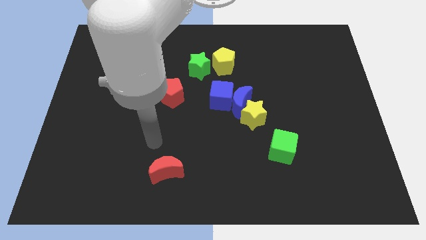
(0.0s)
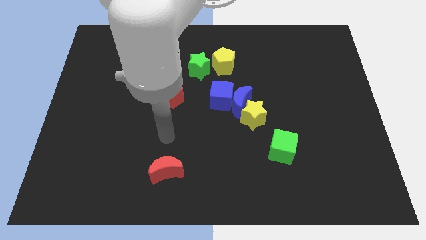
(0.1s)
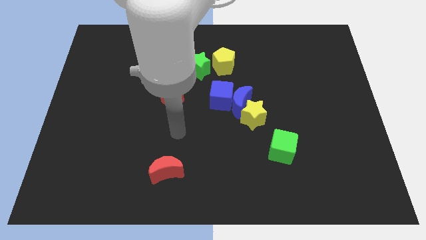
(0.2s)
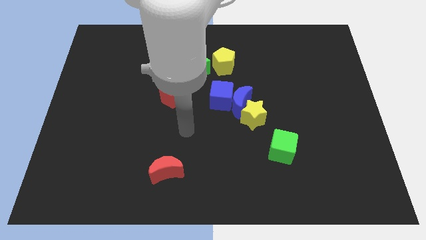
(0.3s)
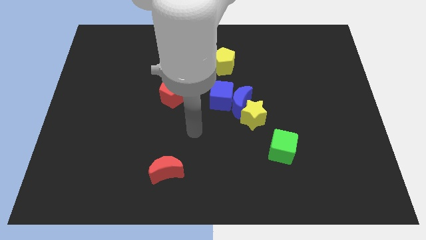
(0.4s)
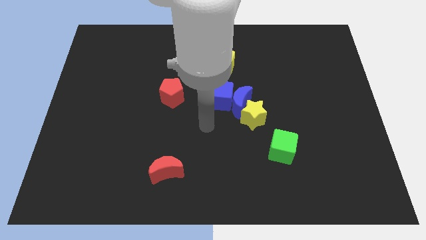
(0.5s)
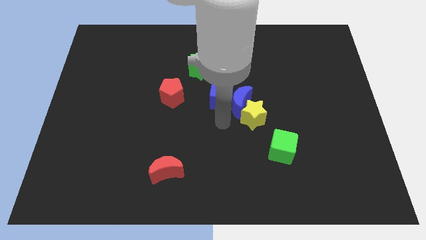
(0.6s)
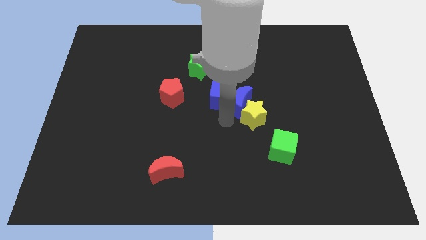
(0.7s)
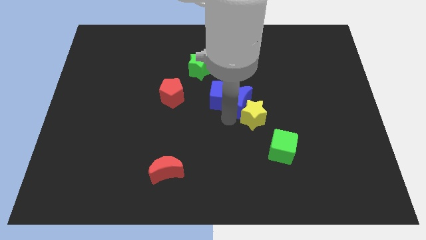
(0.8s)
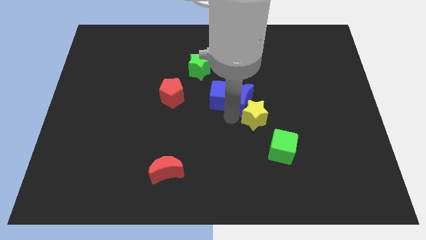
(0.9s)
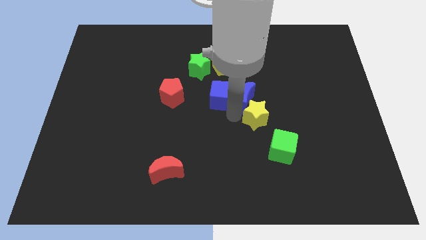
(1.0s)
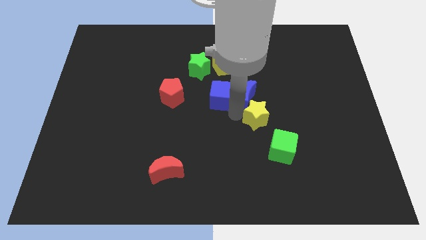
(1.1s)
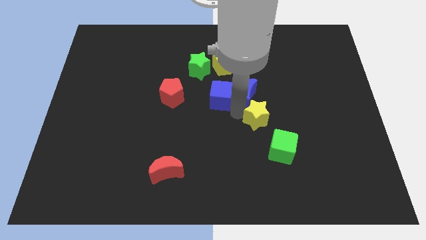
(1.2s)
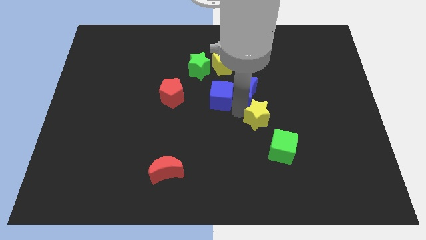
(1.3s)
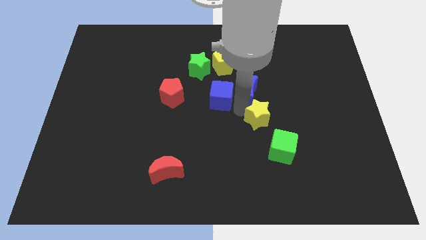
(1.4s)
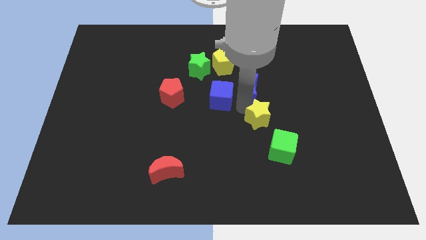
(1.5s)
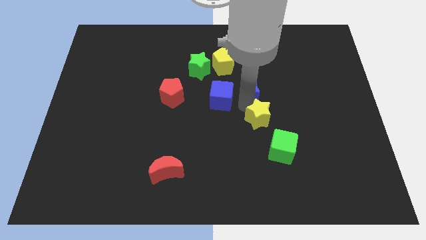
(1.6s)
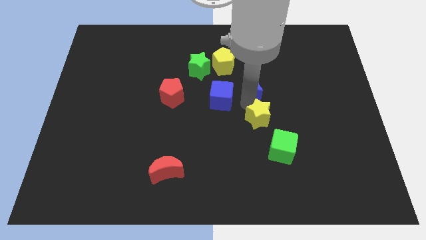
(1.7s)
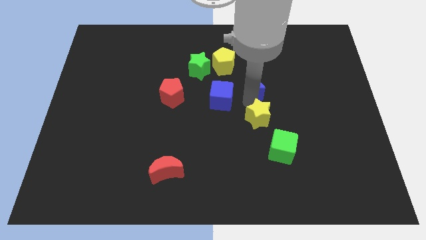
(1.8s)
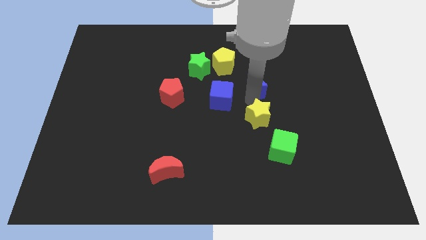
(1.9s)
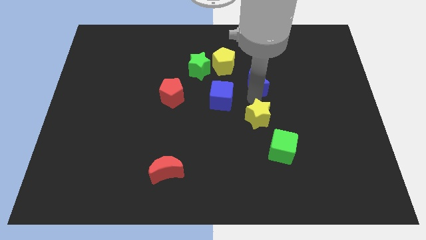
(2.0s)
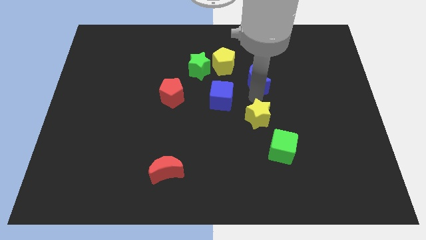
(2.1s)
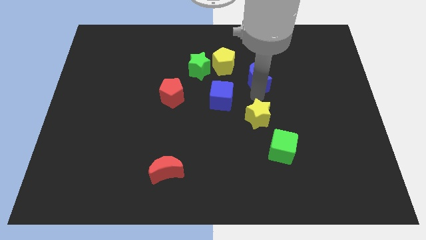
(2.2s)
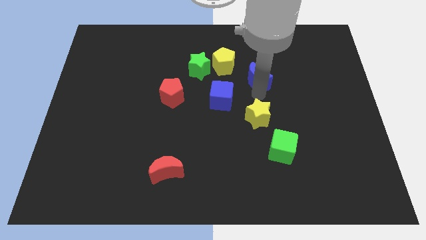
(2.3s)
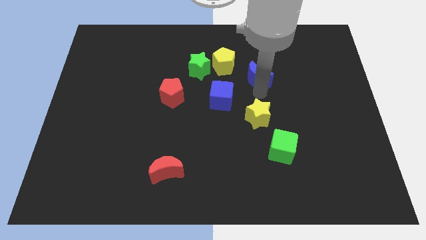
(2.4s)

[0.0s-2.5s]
separate the blue moon from the blue cube and yellow star

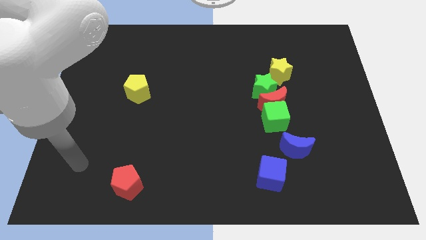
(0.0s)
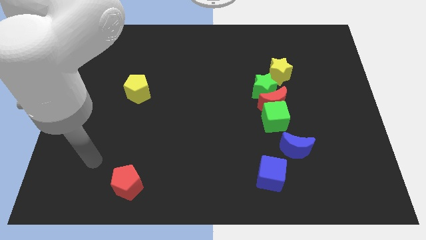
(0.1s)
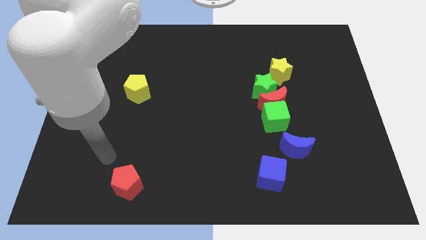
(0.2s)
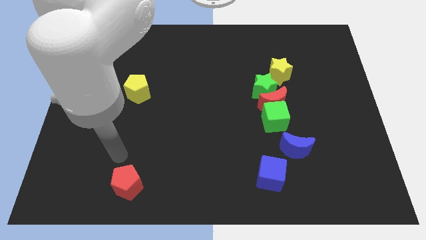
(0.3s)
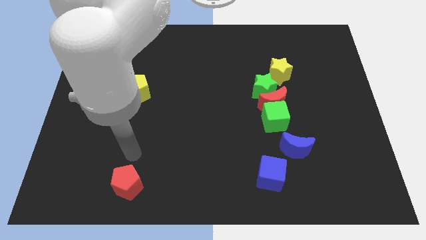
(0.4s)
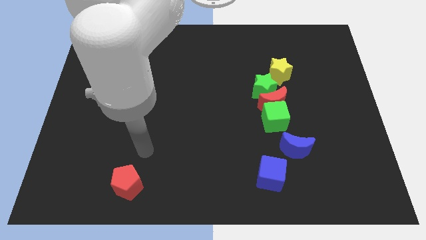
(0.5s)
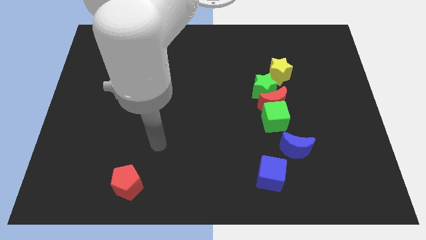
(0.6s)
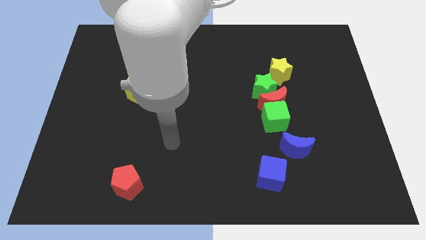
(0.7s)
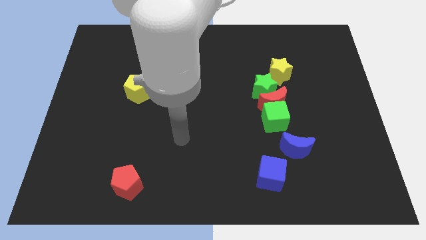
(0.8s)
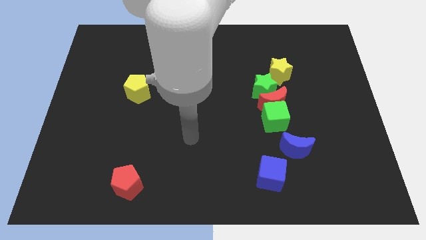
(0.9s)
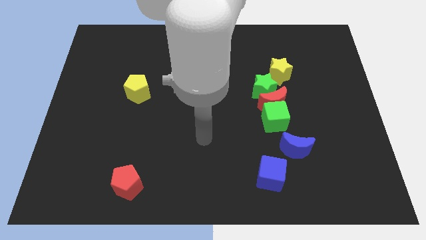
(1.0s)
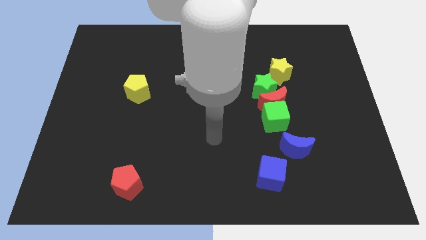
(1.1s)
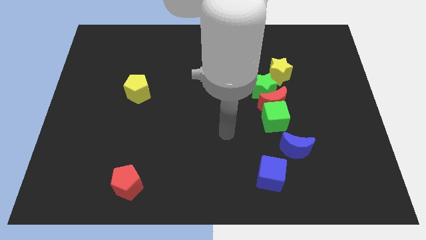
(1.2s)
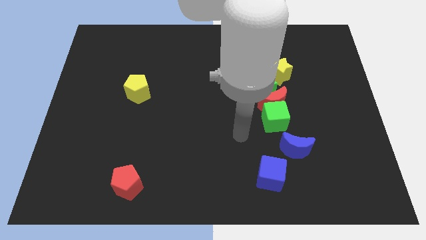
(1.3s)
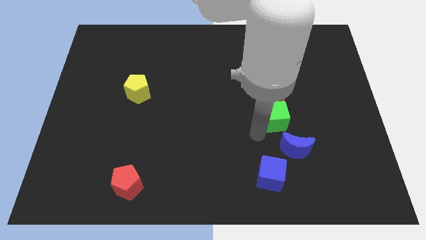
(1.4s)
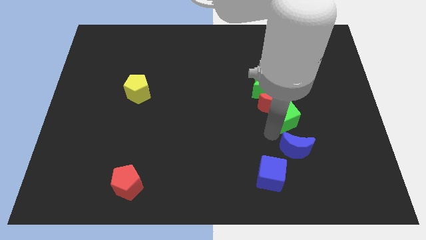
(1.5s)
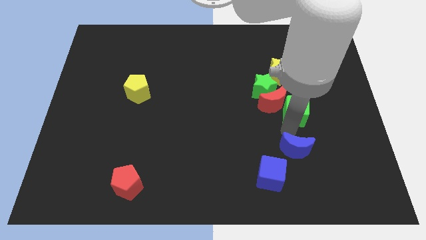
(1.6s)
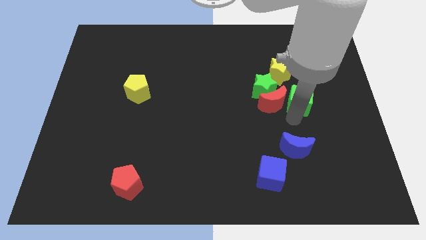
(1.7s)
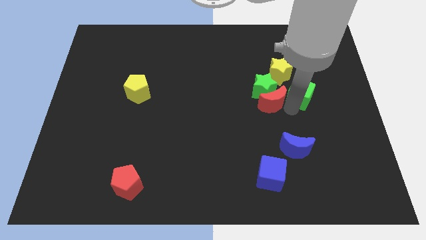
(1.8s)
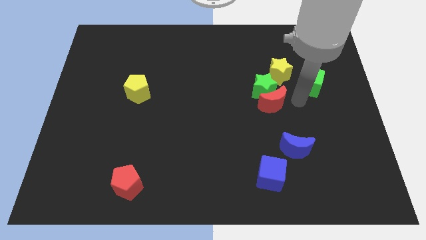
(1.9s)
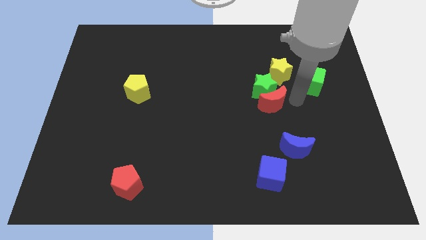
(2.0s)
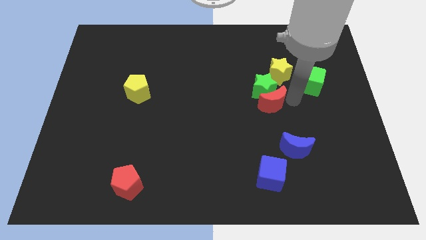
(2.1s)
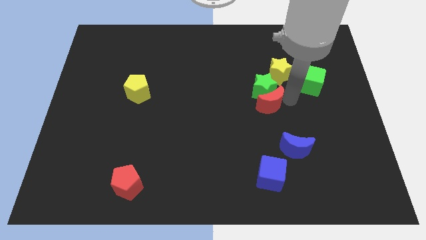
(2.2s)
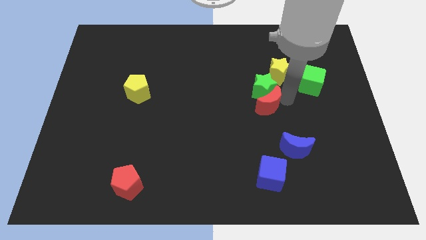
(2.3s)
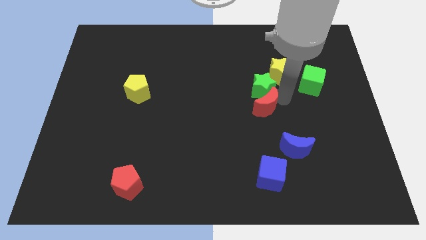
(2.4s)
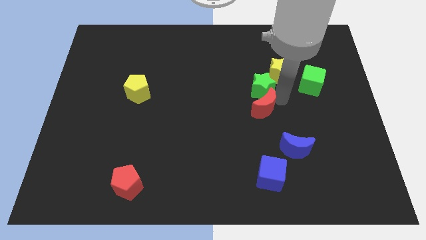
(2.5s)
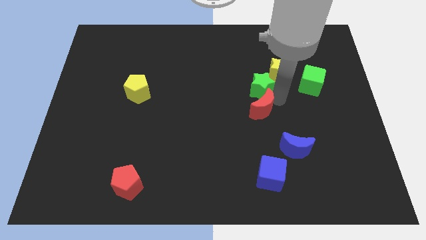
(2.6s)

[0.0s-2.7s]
move the red moon away from the clump

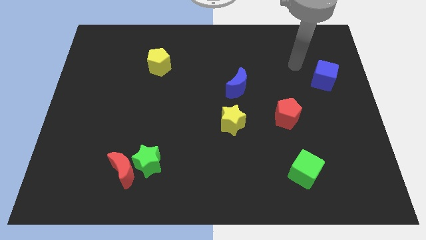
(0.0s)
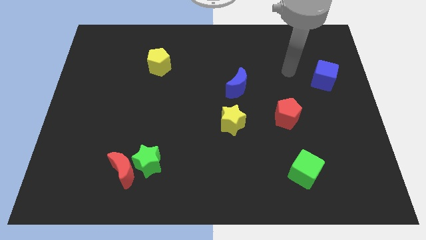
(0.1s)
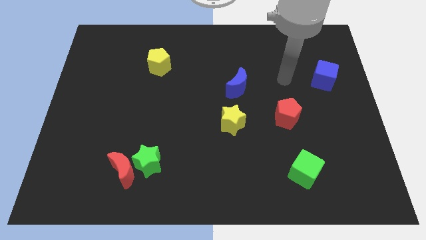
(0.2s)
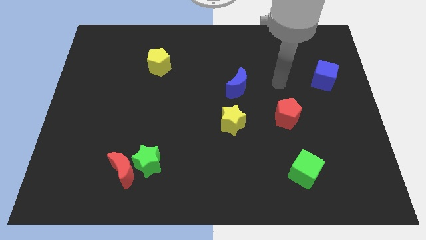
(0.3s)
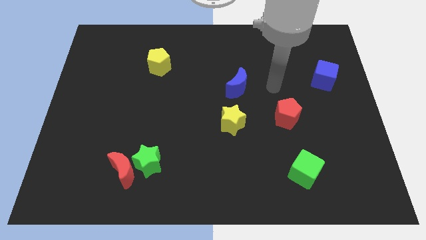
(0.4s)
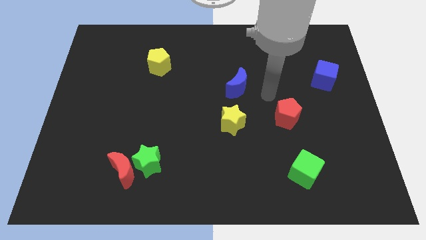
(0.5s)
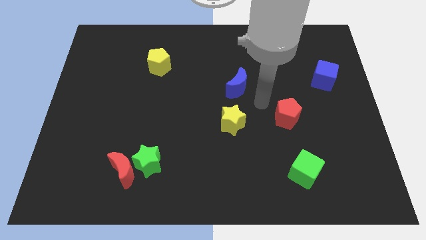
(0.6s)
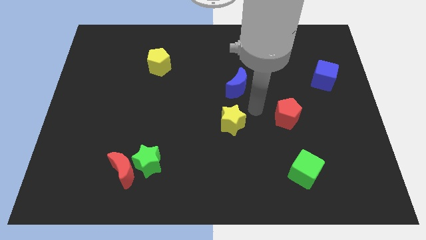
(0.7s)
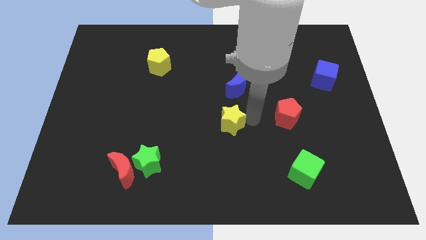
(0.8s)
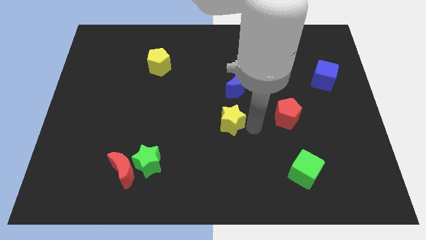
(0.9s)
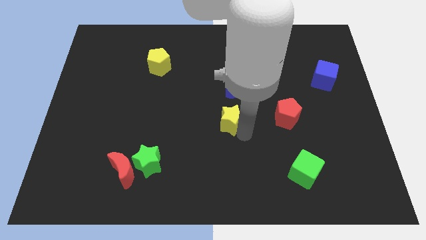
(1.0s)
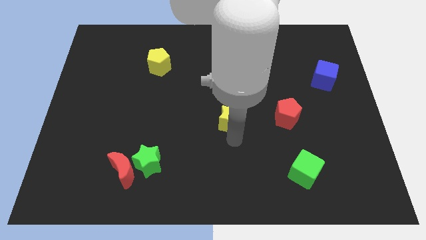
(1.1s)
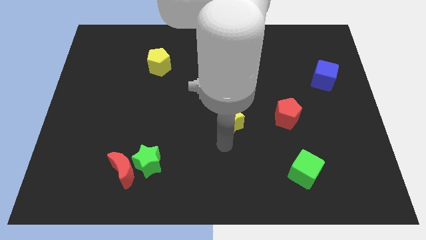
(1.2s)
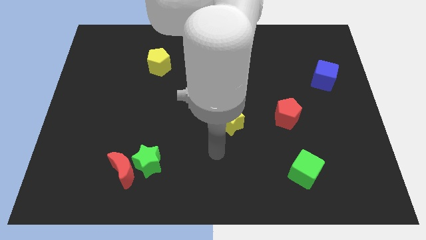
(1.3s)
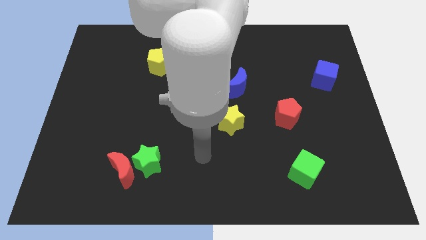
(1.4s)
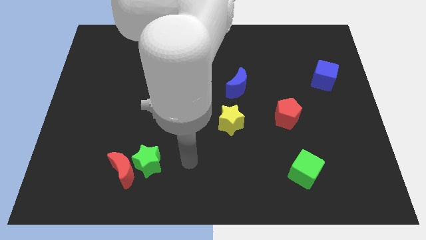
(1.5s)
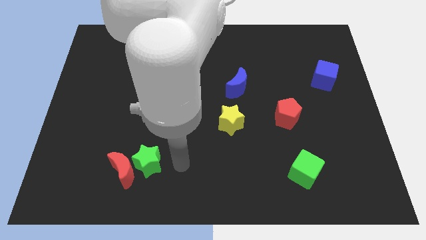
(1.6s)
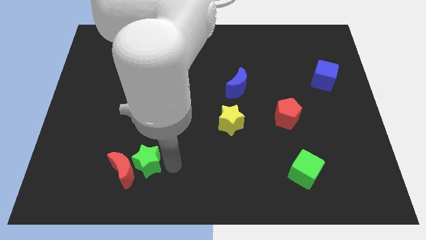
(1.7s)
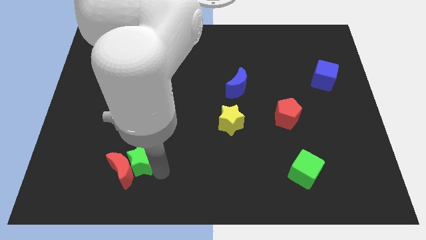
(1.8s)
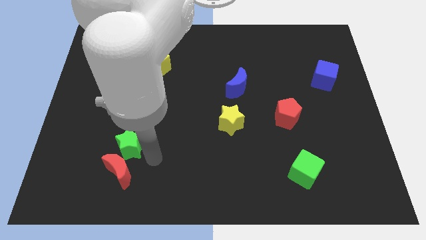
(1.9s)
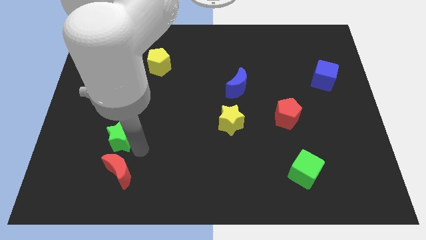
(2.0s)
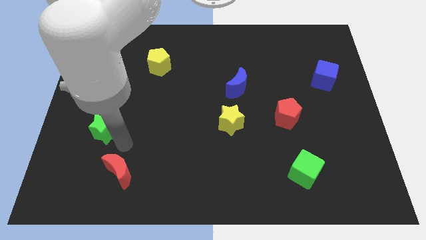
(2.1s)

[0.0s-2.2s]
separate the red moon from the green star

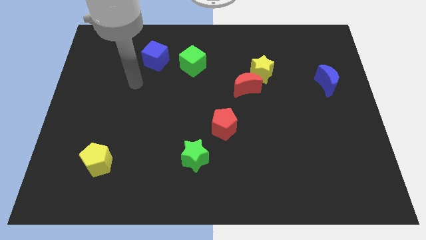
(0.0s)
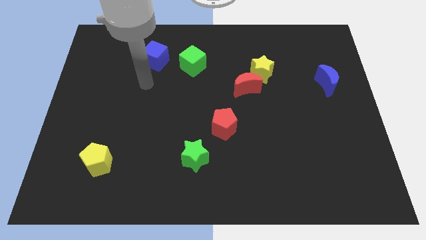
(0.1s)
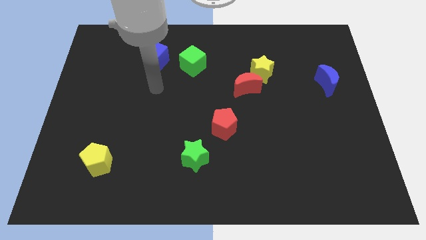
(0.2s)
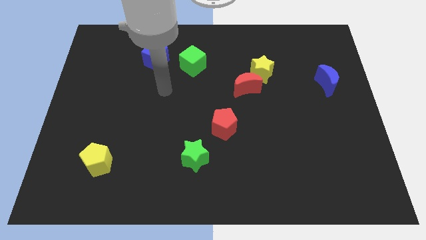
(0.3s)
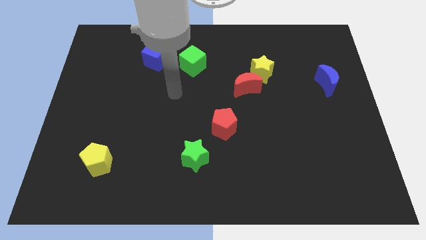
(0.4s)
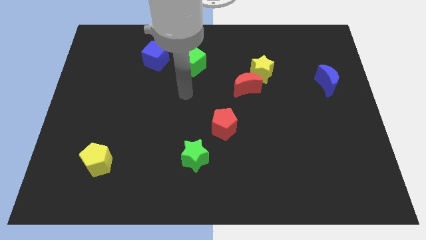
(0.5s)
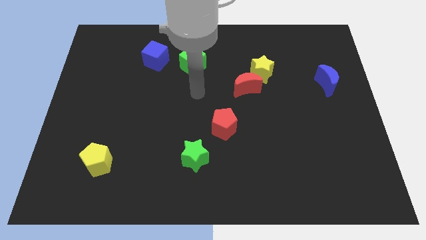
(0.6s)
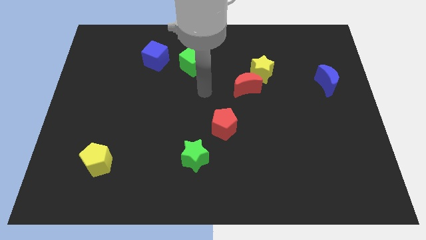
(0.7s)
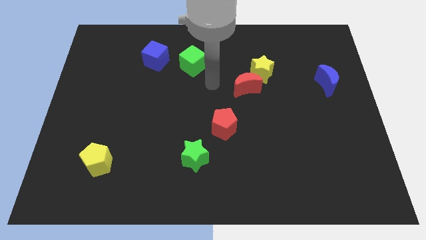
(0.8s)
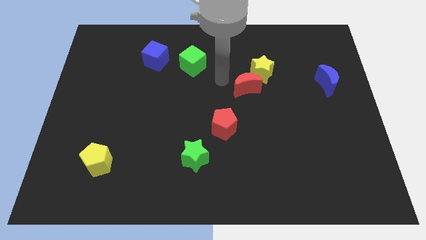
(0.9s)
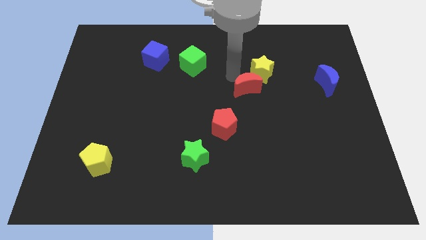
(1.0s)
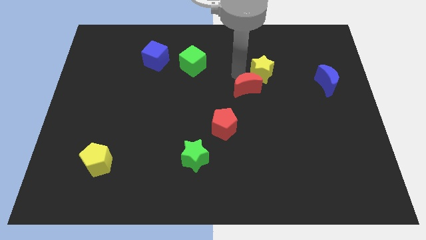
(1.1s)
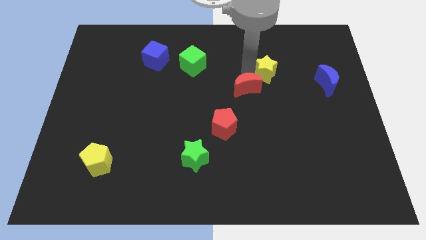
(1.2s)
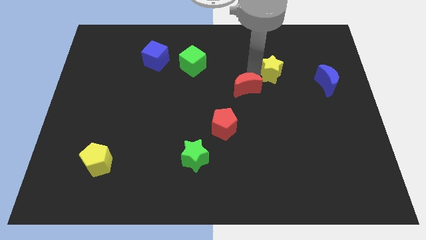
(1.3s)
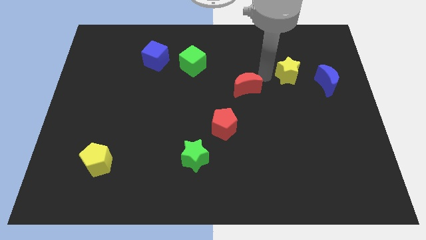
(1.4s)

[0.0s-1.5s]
separate the red moon from the yellow star

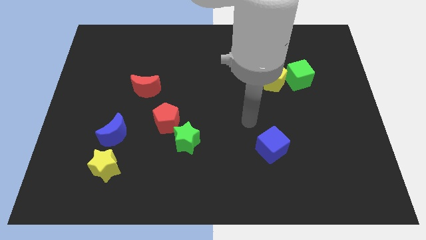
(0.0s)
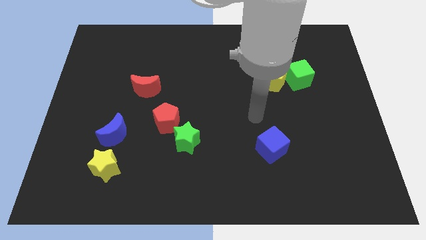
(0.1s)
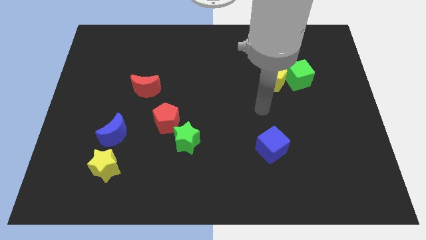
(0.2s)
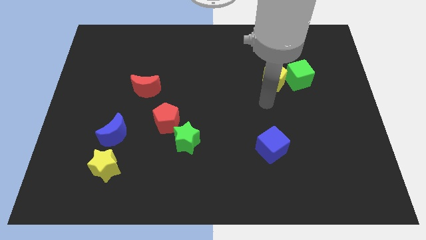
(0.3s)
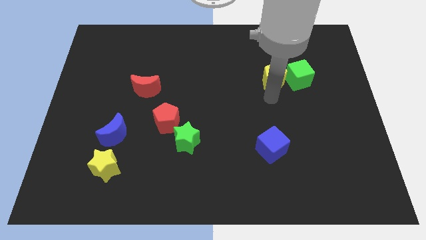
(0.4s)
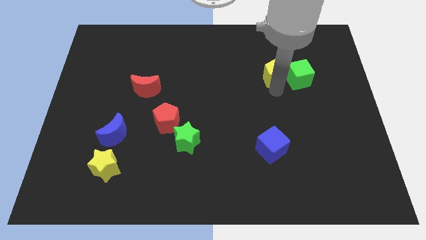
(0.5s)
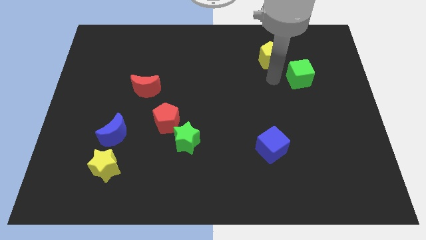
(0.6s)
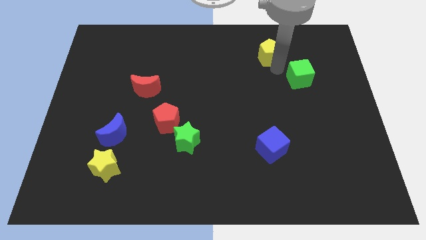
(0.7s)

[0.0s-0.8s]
move the green cube away from the yellow pentagon
